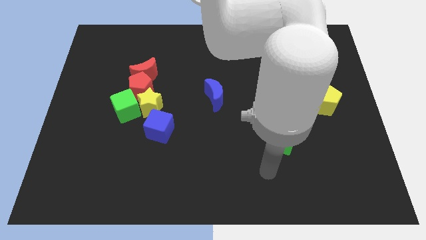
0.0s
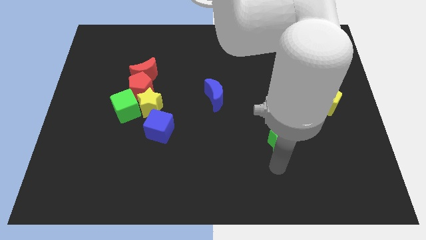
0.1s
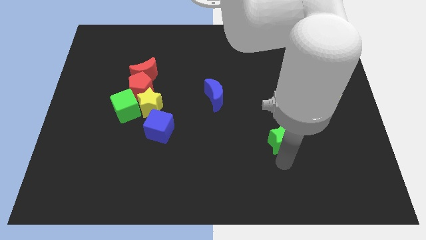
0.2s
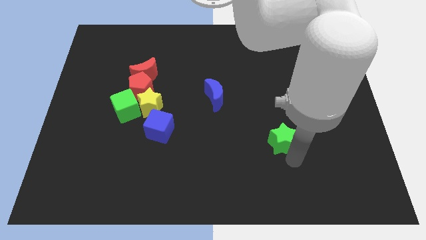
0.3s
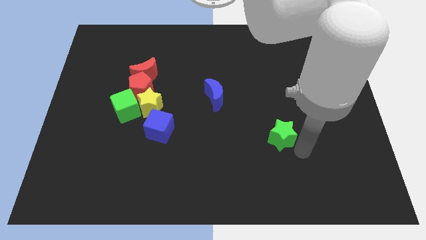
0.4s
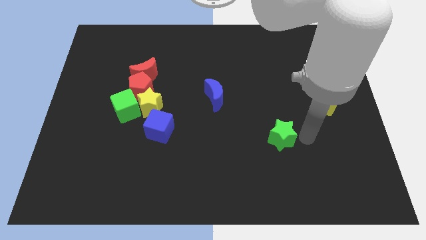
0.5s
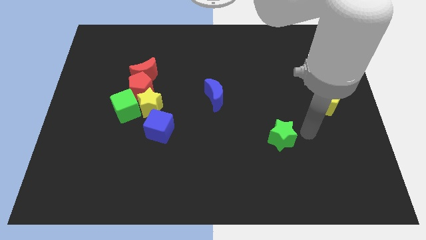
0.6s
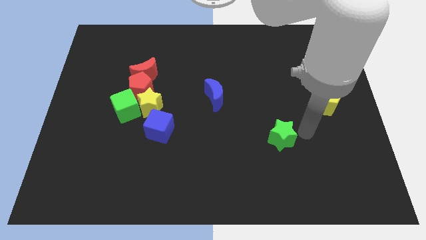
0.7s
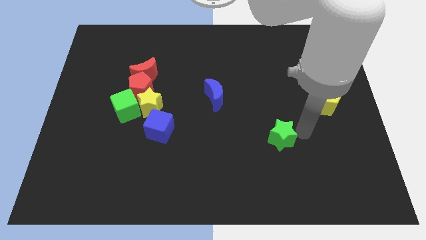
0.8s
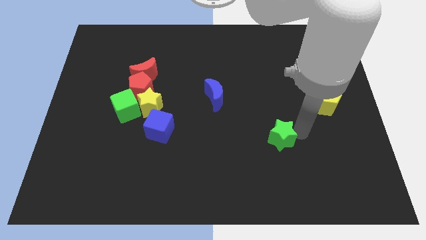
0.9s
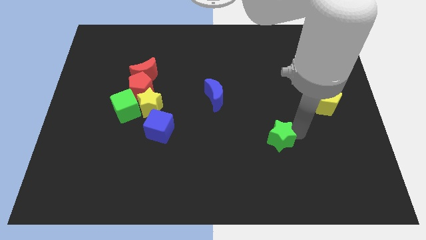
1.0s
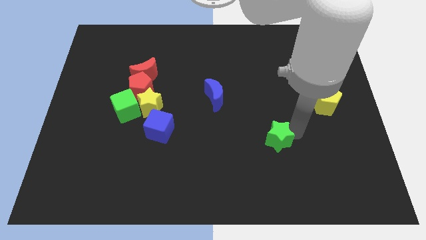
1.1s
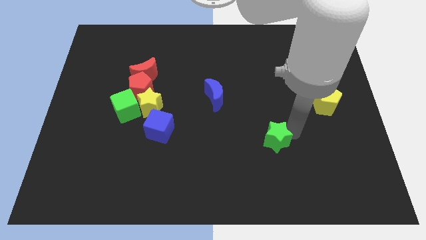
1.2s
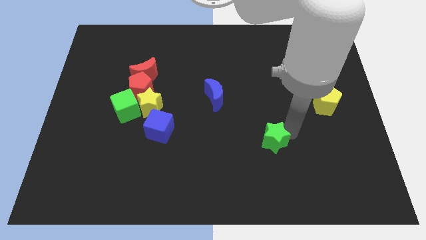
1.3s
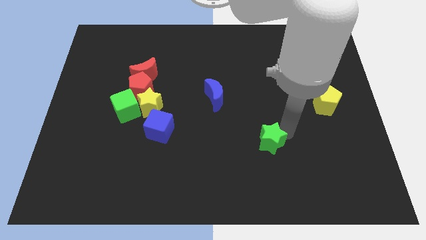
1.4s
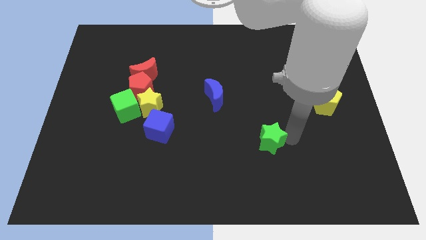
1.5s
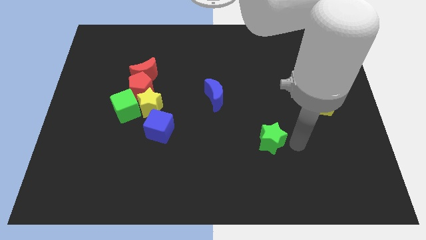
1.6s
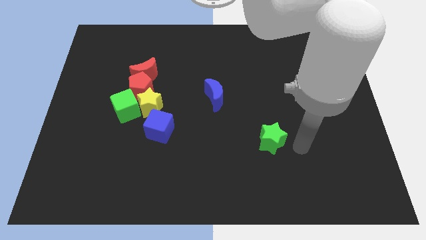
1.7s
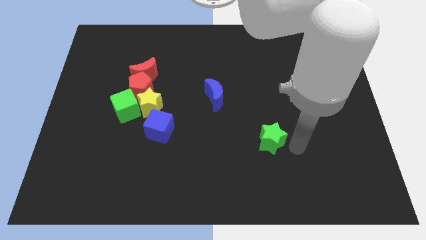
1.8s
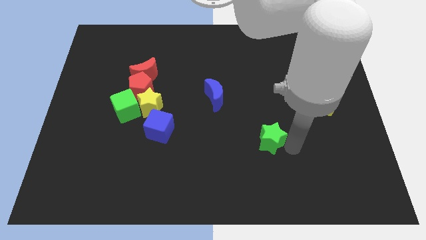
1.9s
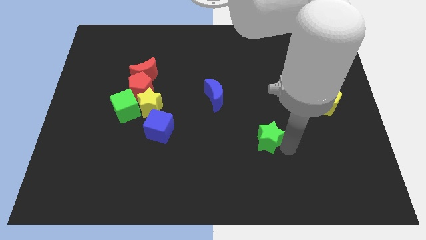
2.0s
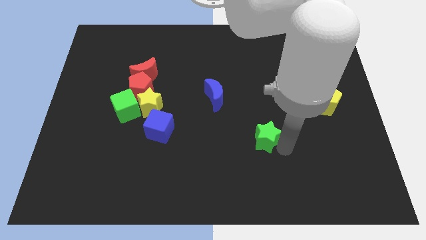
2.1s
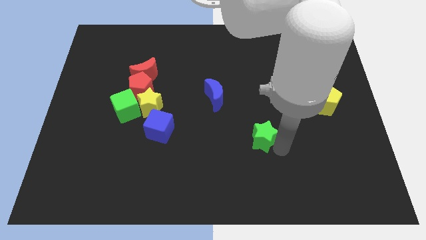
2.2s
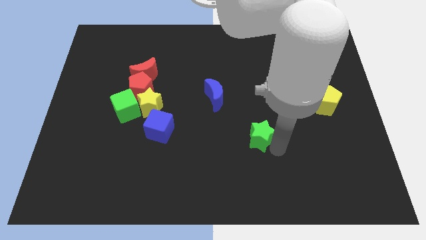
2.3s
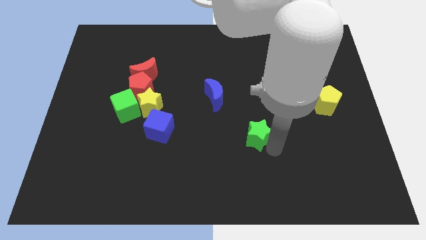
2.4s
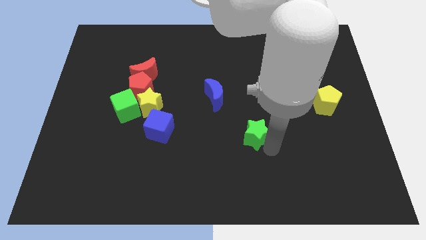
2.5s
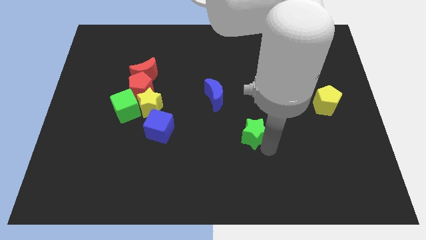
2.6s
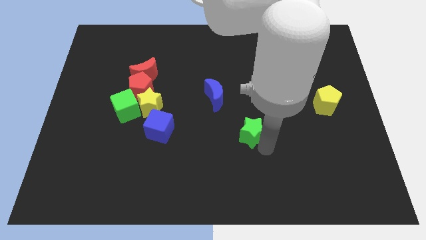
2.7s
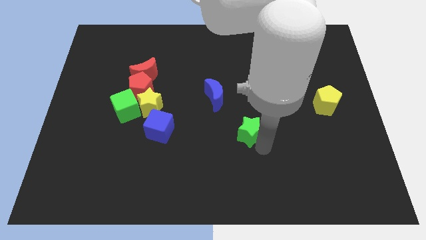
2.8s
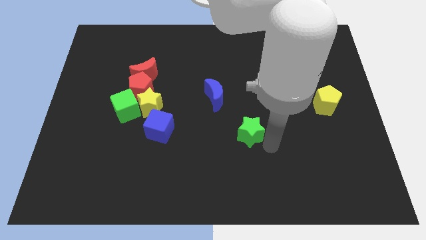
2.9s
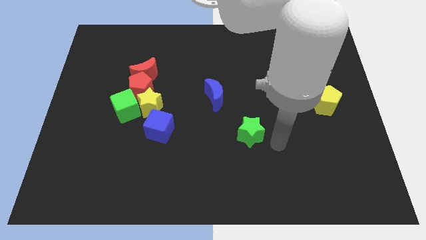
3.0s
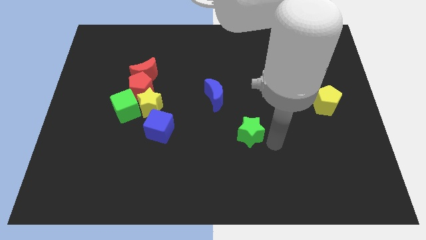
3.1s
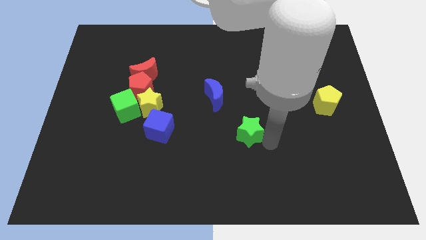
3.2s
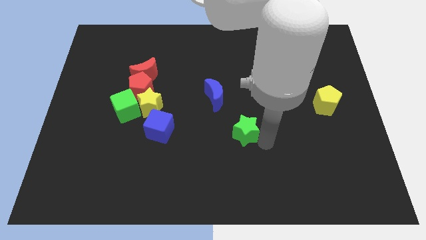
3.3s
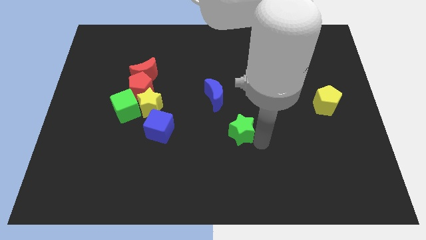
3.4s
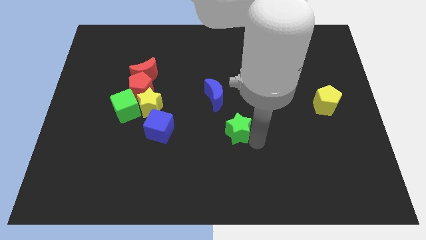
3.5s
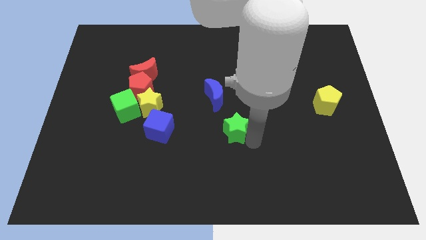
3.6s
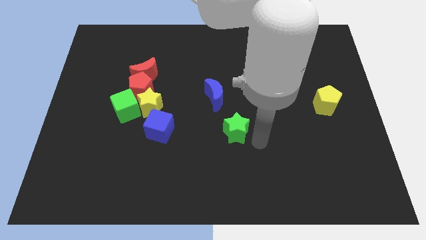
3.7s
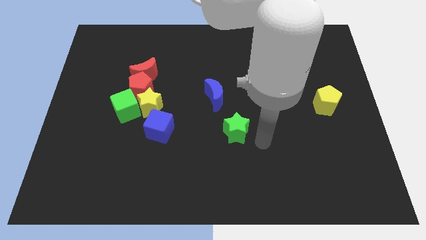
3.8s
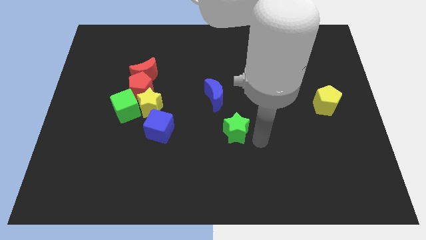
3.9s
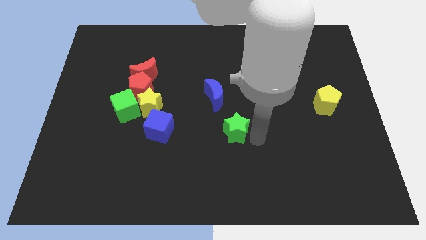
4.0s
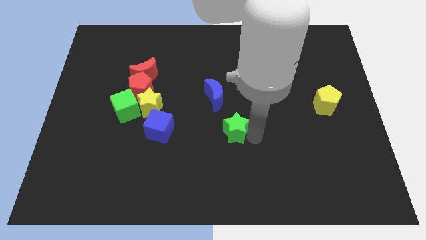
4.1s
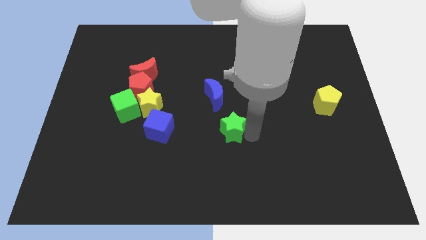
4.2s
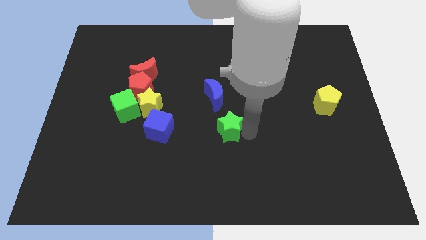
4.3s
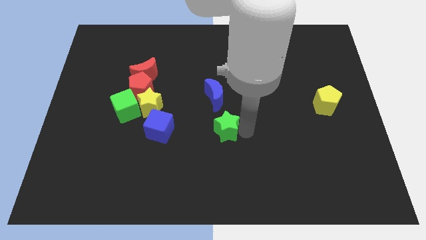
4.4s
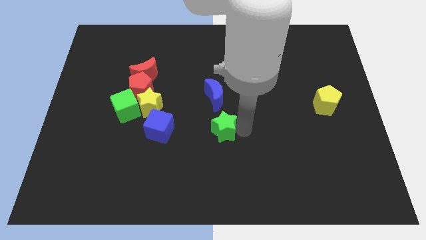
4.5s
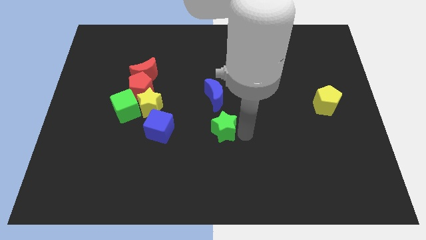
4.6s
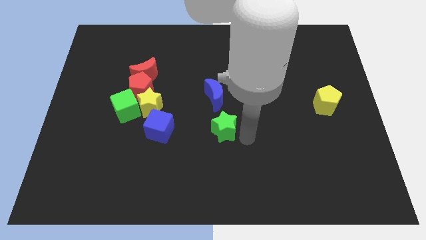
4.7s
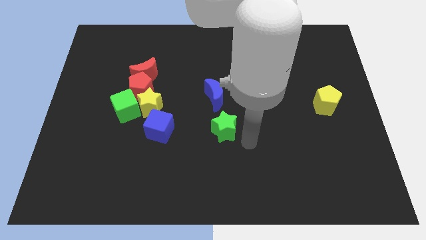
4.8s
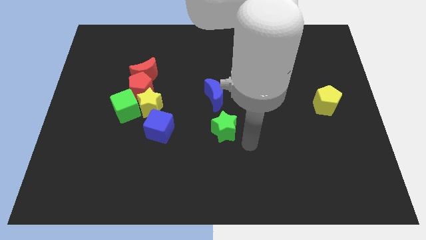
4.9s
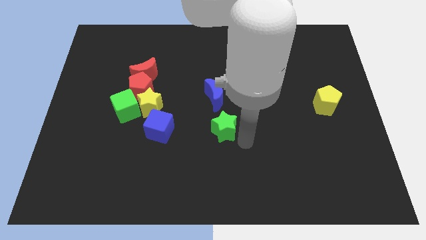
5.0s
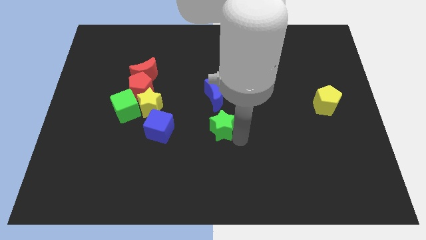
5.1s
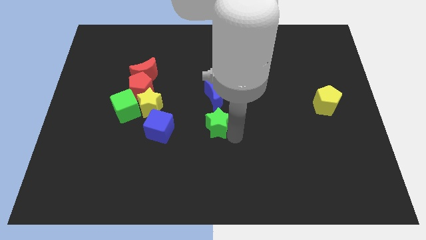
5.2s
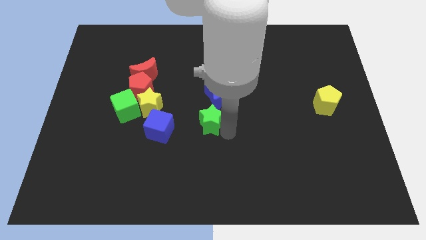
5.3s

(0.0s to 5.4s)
put the green star diagonally down and to the left of the blue moon

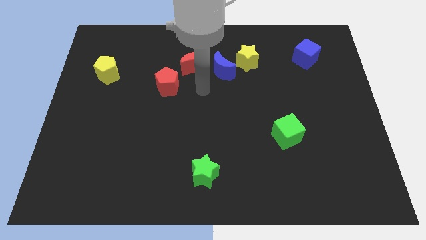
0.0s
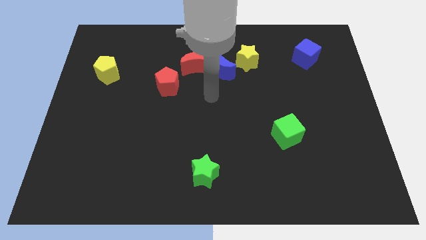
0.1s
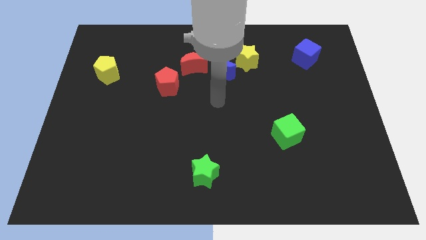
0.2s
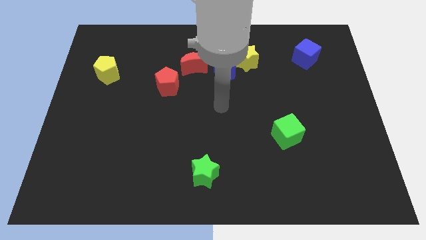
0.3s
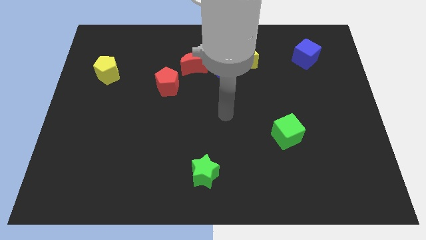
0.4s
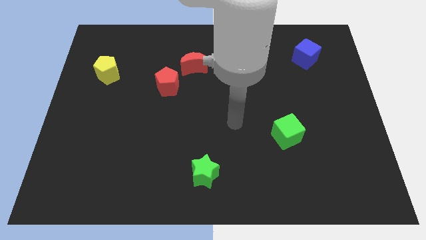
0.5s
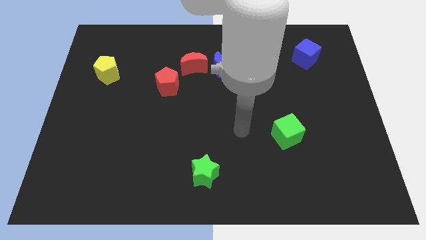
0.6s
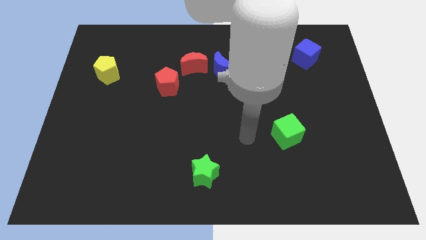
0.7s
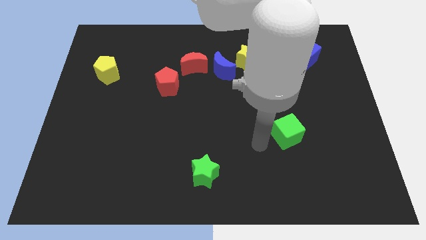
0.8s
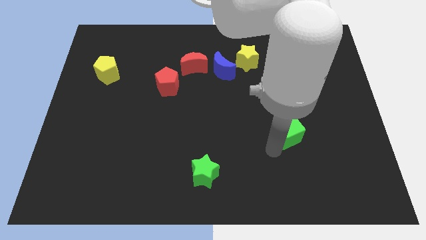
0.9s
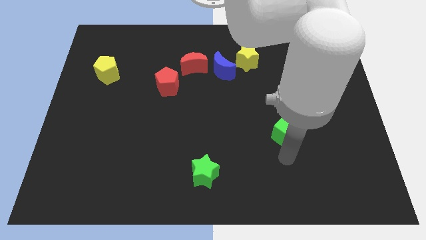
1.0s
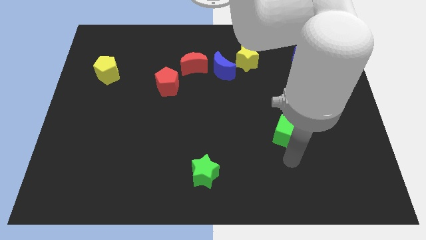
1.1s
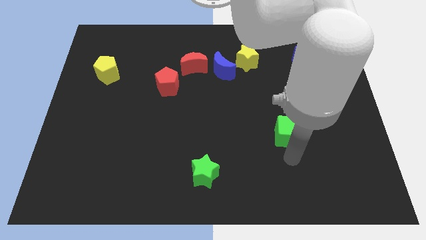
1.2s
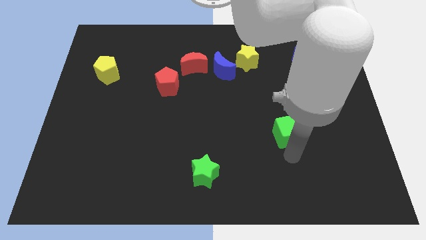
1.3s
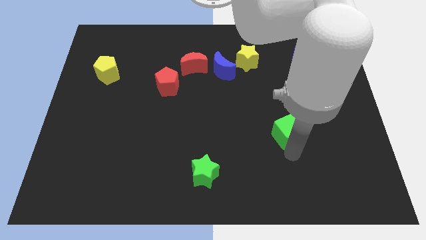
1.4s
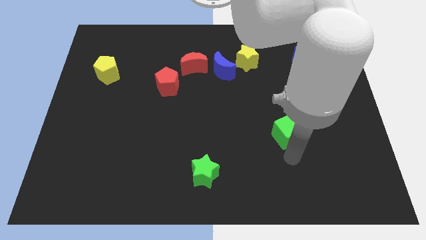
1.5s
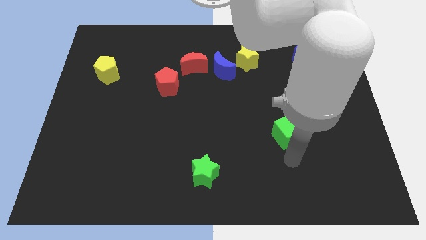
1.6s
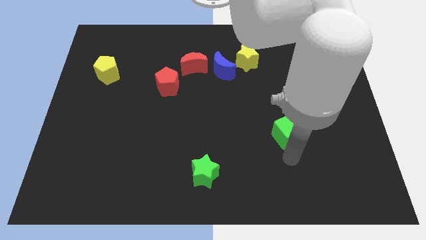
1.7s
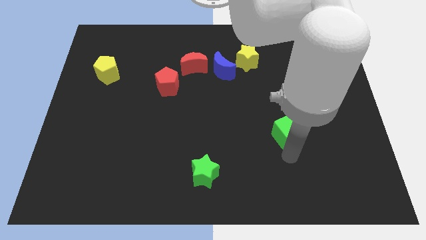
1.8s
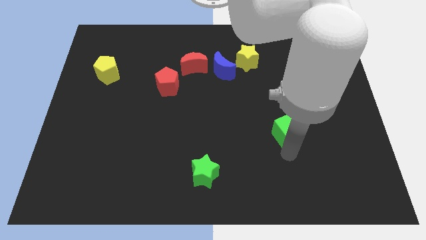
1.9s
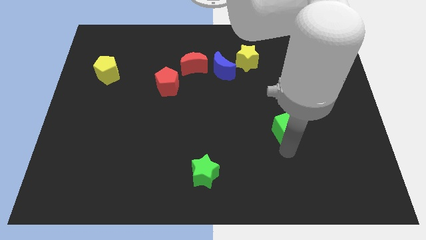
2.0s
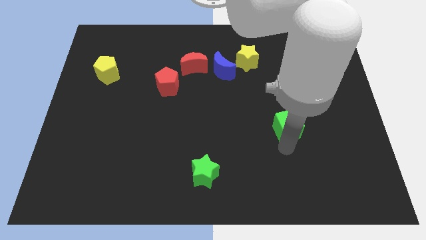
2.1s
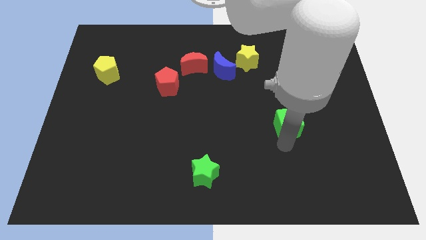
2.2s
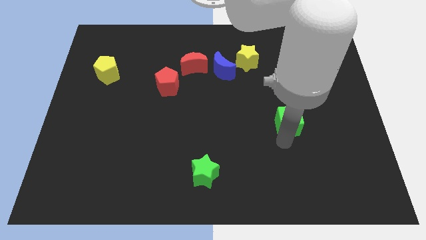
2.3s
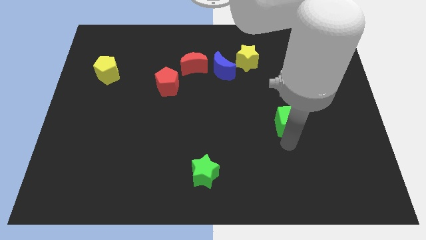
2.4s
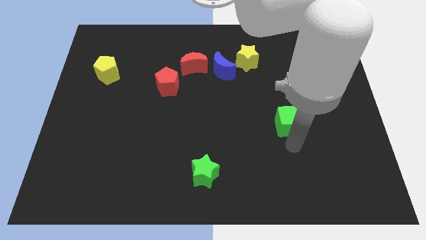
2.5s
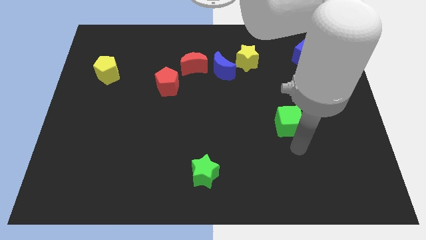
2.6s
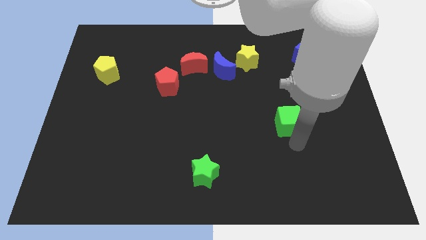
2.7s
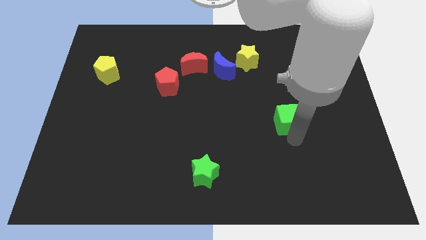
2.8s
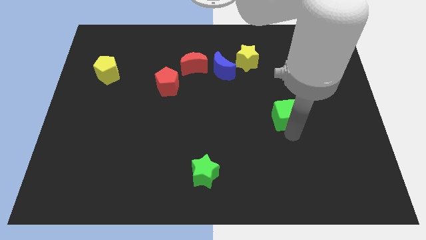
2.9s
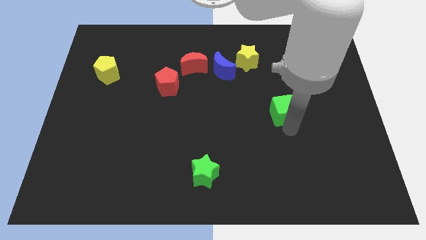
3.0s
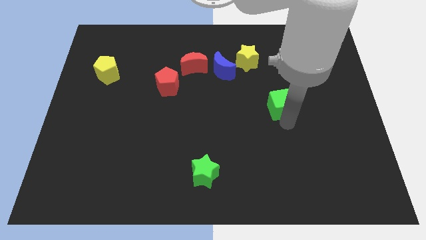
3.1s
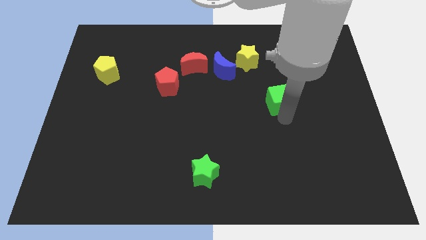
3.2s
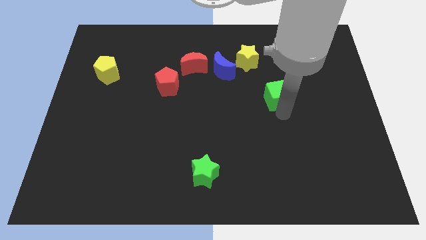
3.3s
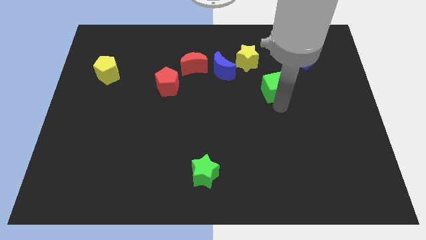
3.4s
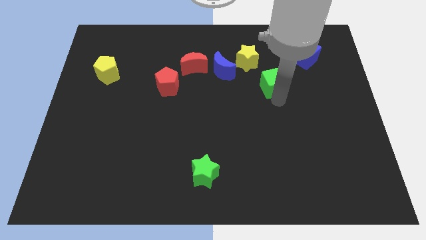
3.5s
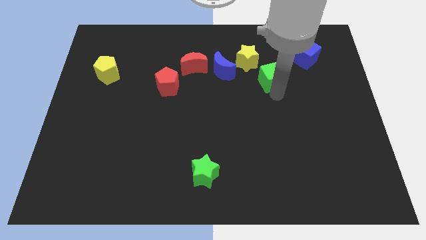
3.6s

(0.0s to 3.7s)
put the green cube right of the blue moon
